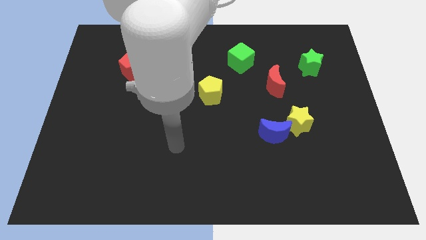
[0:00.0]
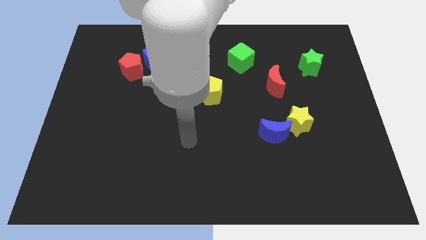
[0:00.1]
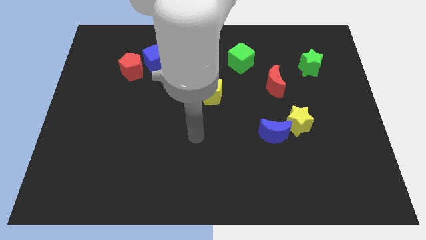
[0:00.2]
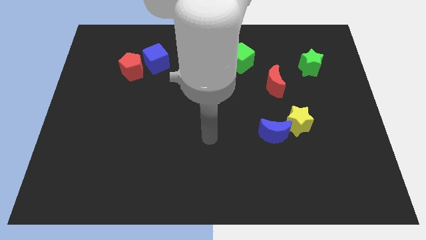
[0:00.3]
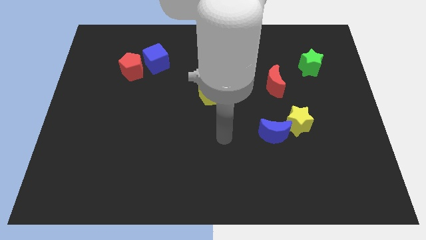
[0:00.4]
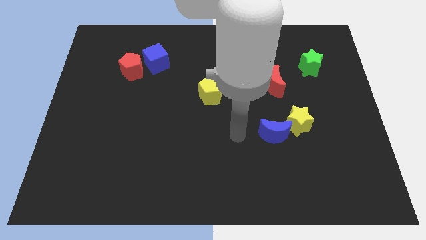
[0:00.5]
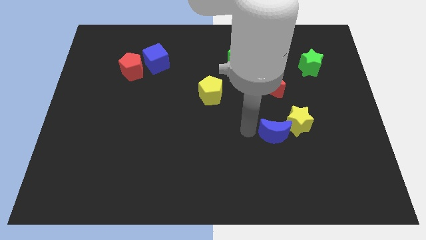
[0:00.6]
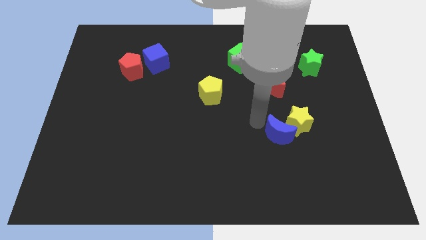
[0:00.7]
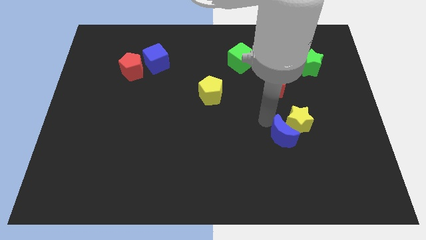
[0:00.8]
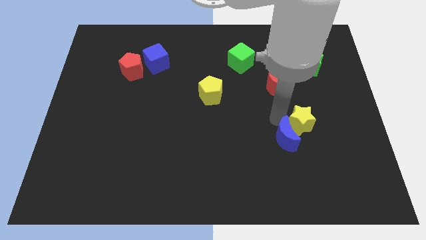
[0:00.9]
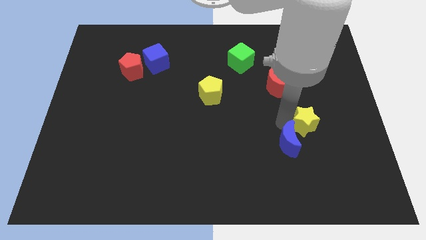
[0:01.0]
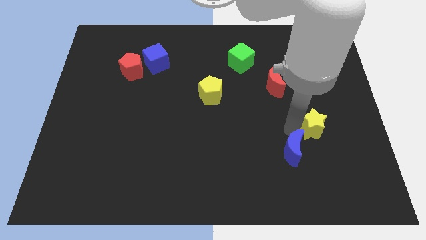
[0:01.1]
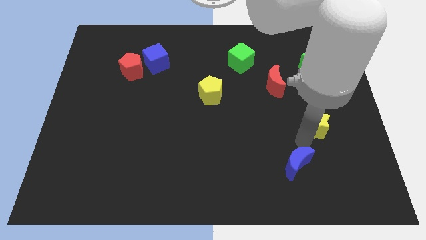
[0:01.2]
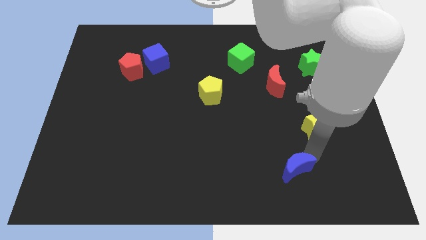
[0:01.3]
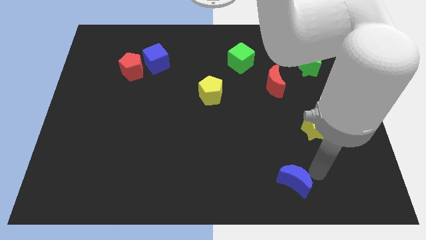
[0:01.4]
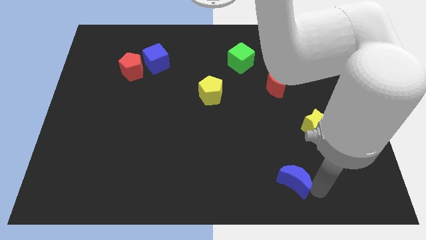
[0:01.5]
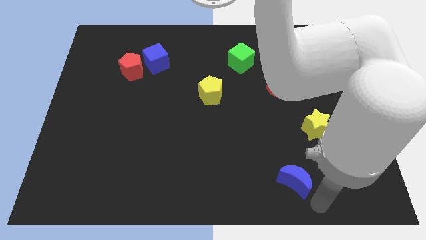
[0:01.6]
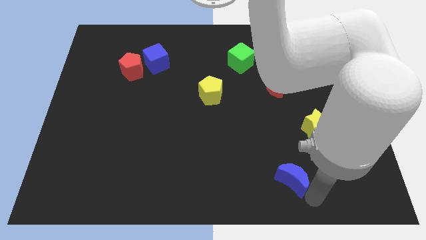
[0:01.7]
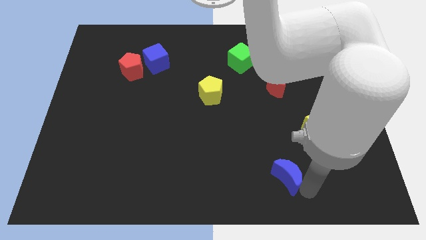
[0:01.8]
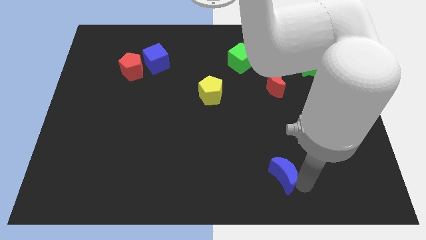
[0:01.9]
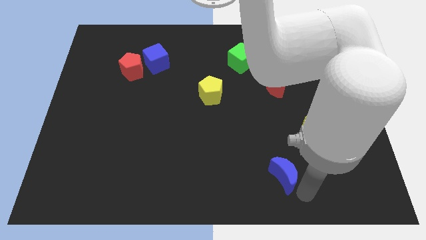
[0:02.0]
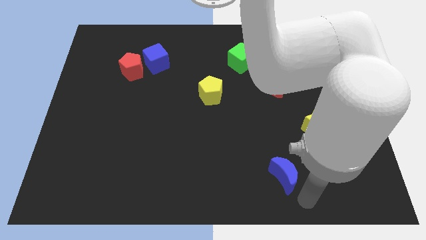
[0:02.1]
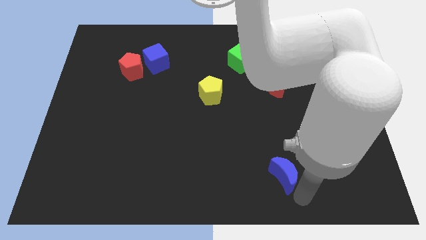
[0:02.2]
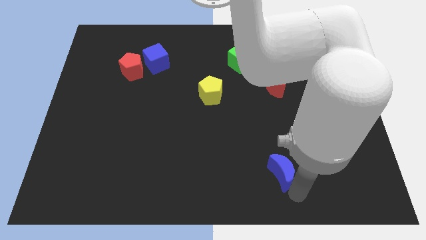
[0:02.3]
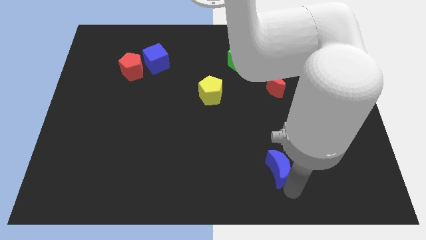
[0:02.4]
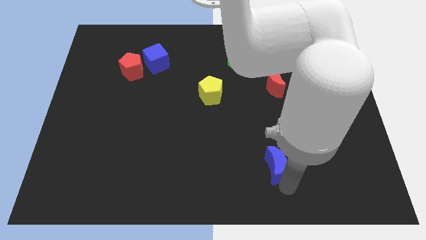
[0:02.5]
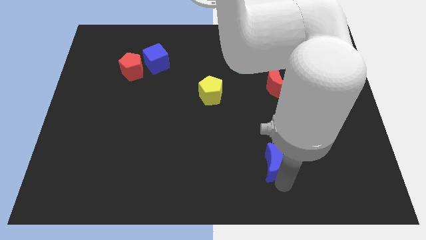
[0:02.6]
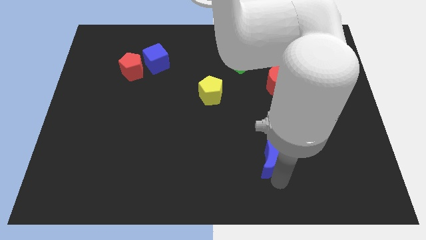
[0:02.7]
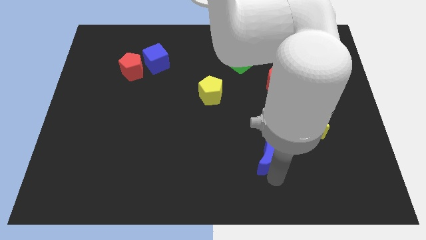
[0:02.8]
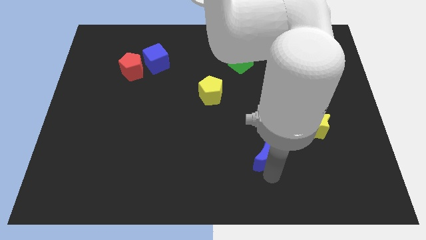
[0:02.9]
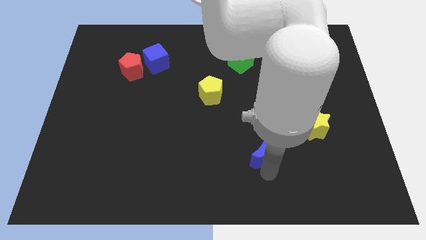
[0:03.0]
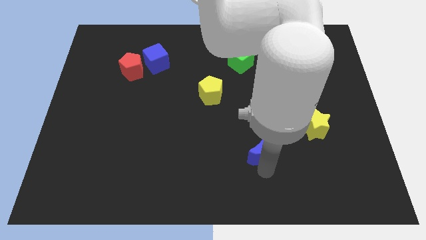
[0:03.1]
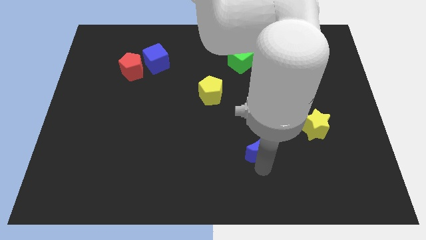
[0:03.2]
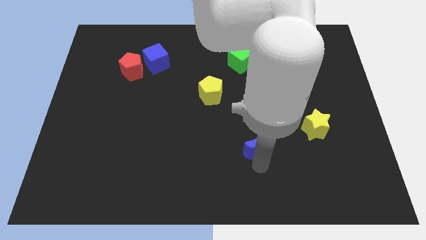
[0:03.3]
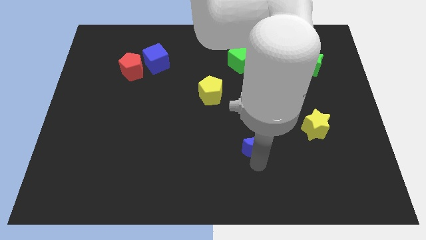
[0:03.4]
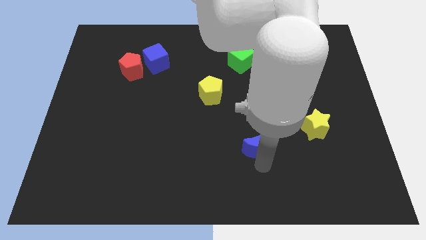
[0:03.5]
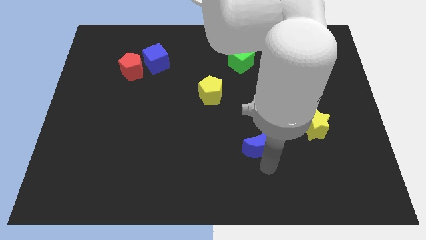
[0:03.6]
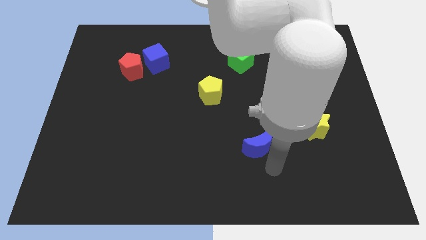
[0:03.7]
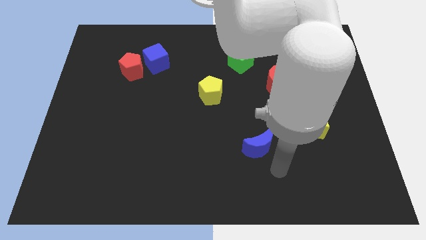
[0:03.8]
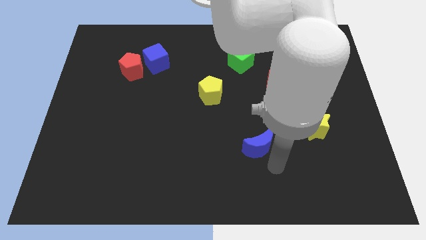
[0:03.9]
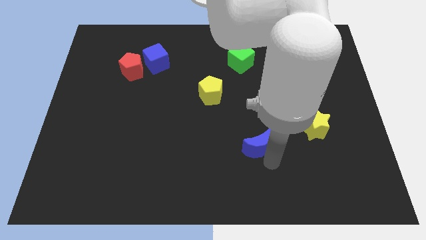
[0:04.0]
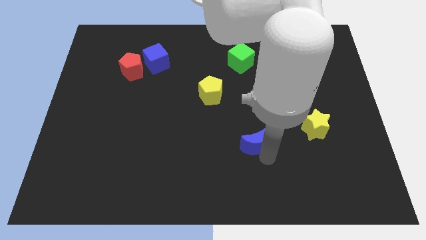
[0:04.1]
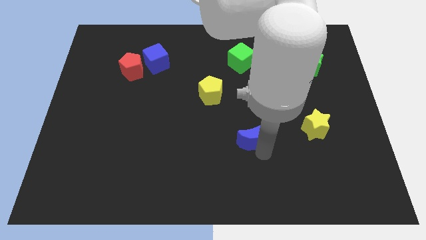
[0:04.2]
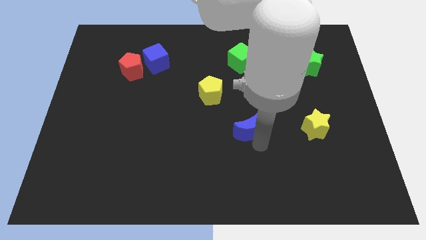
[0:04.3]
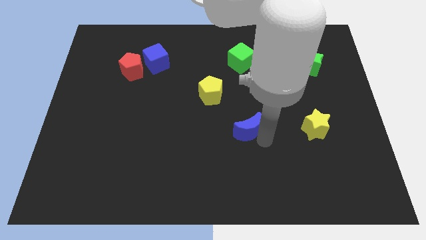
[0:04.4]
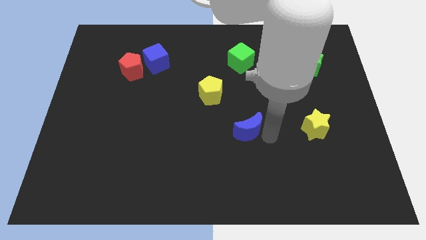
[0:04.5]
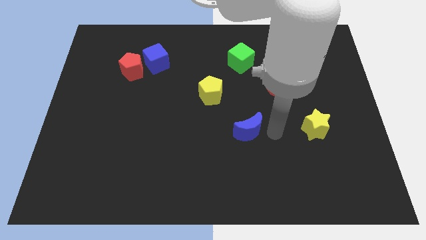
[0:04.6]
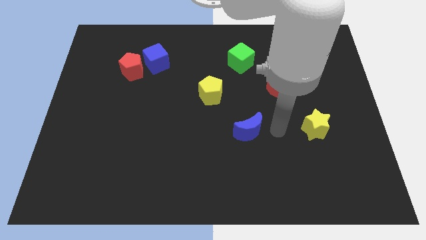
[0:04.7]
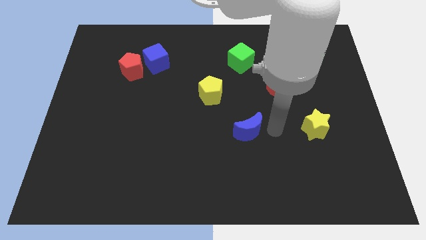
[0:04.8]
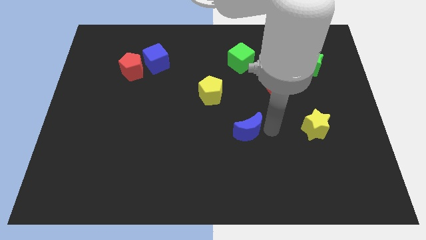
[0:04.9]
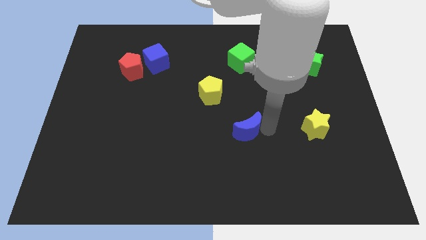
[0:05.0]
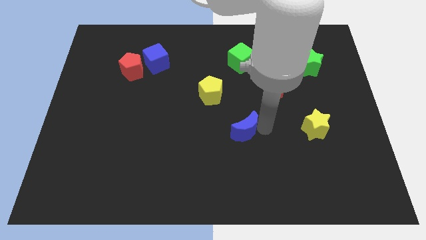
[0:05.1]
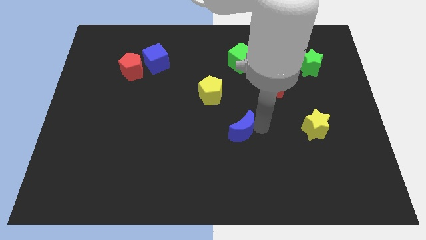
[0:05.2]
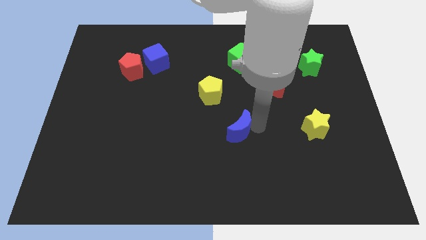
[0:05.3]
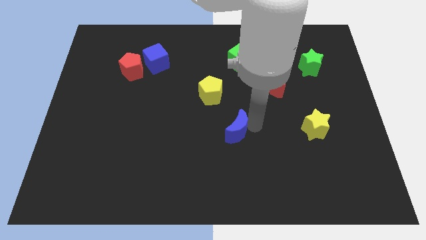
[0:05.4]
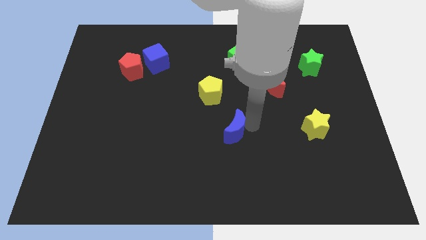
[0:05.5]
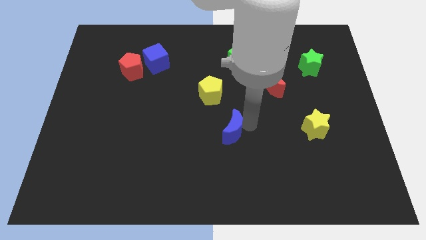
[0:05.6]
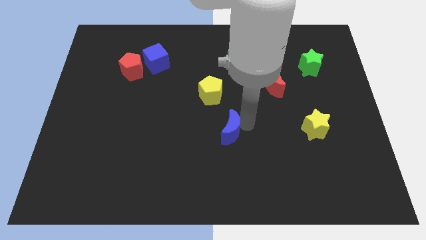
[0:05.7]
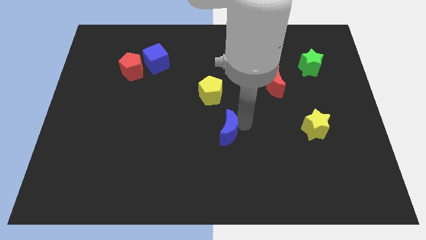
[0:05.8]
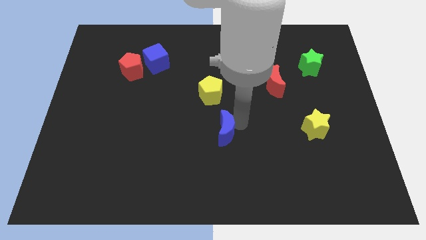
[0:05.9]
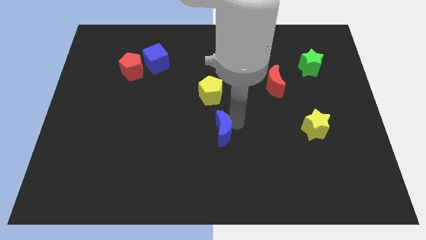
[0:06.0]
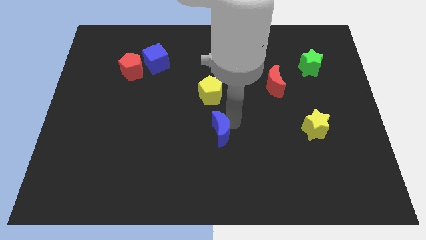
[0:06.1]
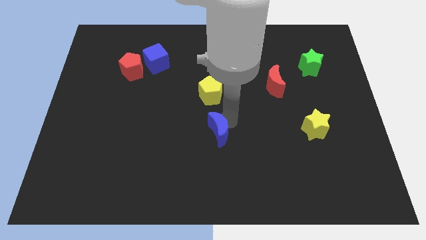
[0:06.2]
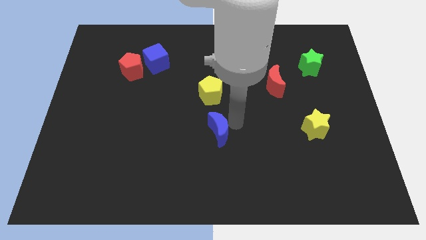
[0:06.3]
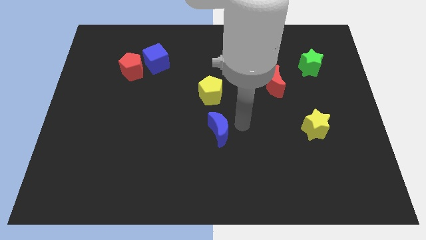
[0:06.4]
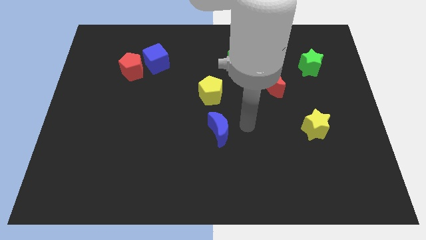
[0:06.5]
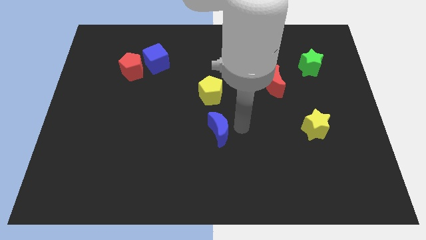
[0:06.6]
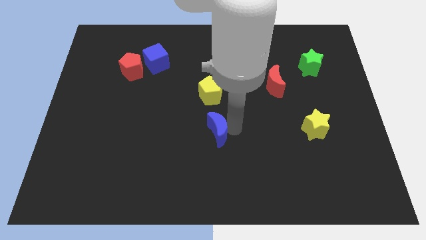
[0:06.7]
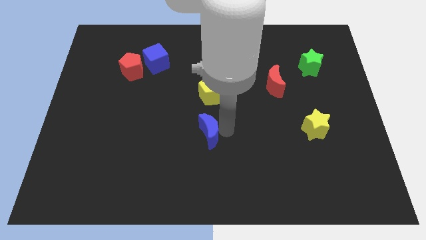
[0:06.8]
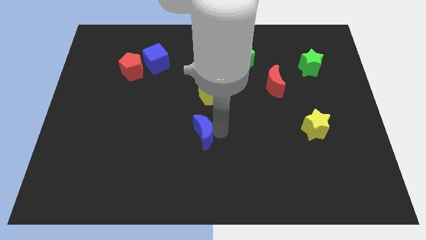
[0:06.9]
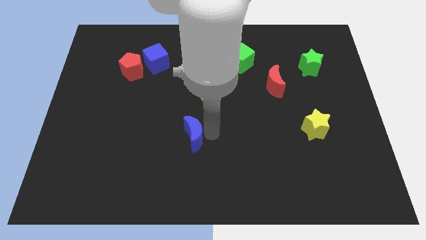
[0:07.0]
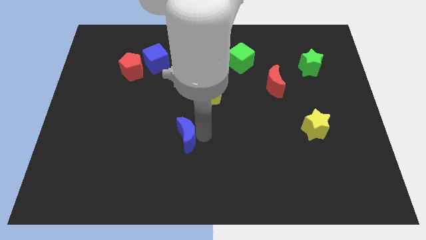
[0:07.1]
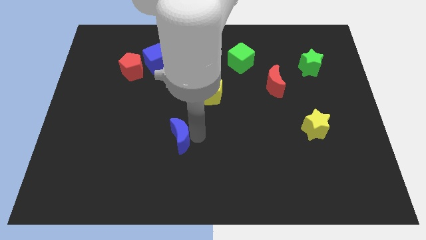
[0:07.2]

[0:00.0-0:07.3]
move the blue moon left

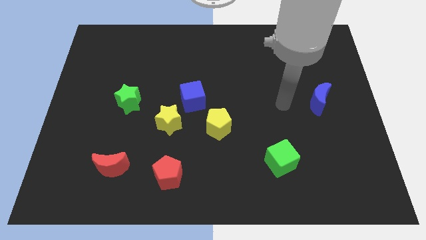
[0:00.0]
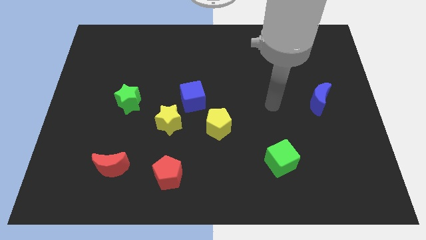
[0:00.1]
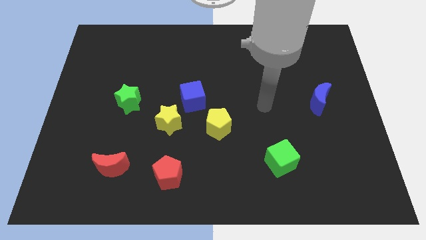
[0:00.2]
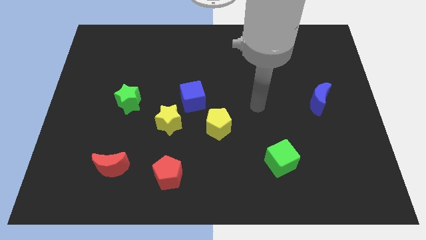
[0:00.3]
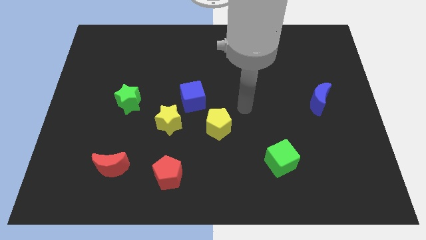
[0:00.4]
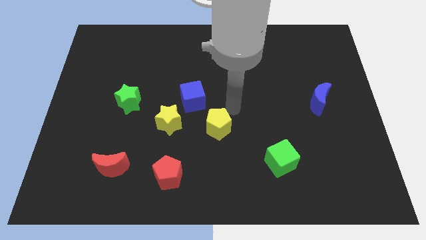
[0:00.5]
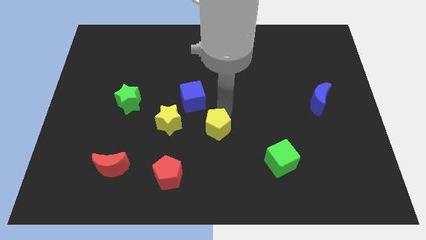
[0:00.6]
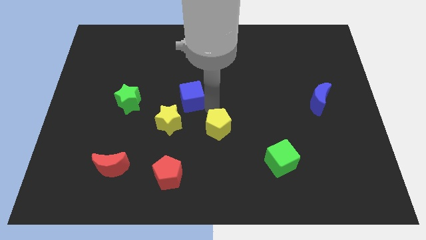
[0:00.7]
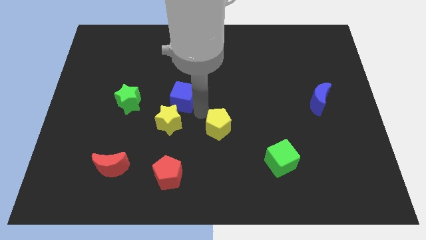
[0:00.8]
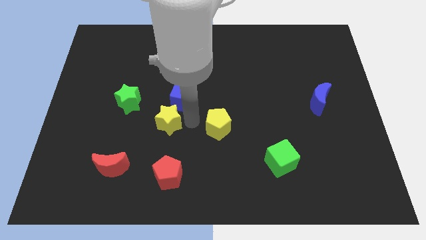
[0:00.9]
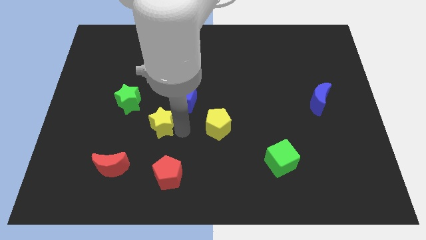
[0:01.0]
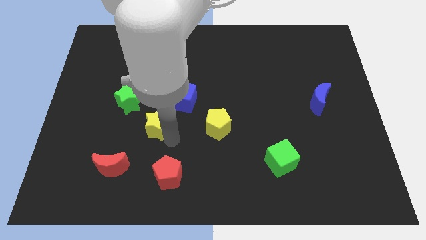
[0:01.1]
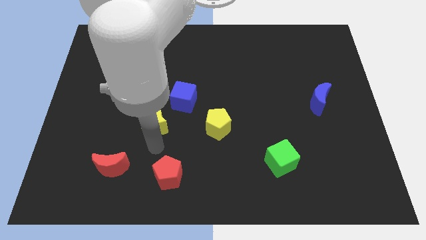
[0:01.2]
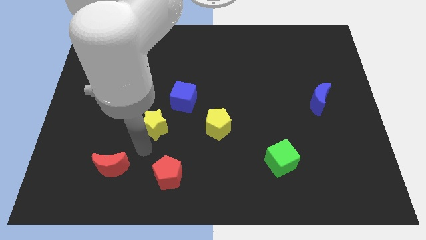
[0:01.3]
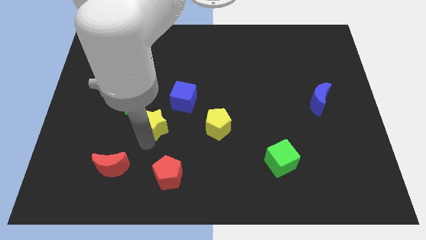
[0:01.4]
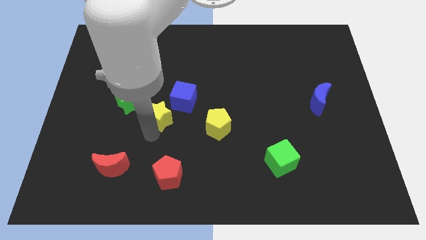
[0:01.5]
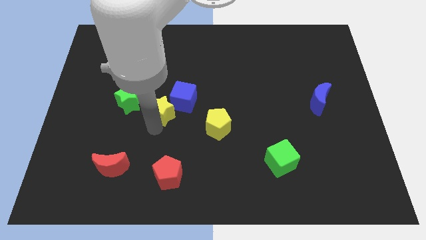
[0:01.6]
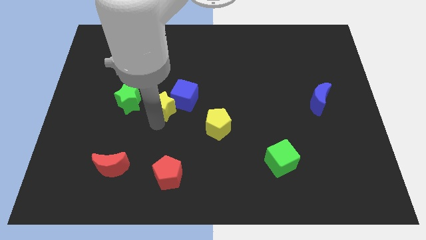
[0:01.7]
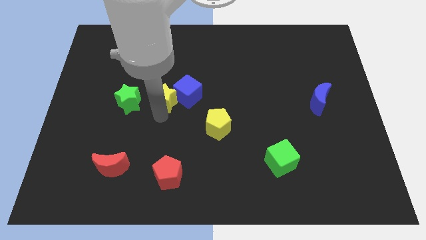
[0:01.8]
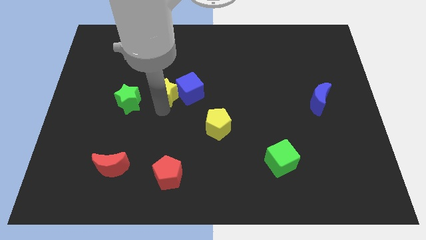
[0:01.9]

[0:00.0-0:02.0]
slightly push the yellow star up
